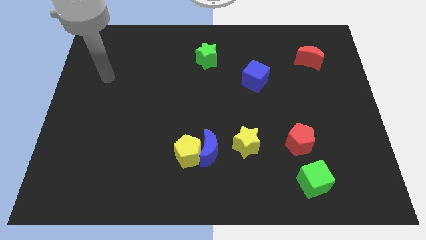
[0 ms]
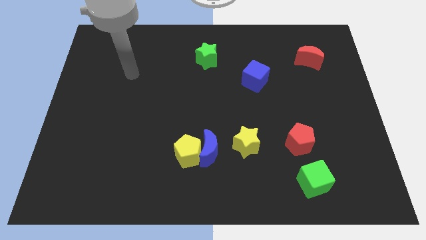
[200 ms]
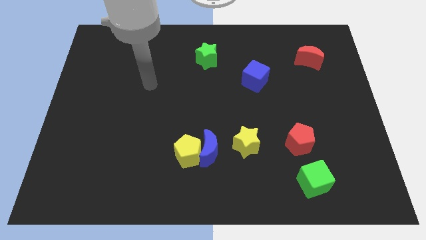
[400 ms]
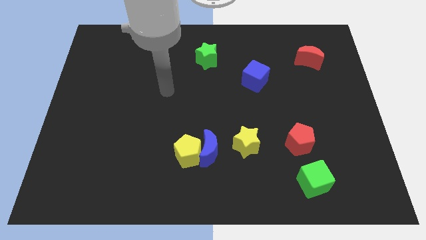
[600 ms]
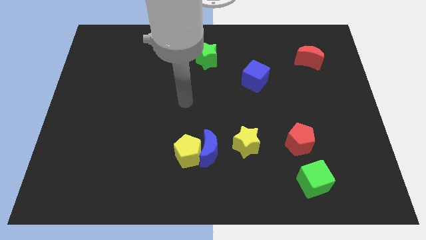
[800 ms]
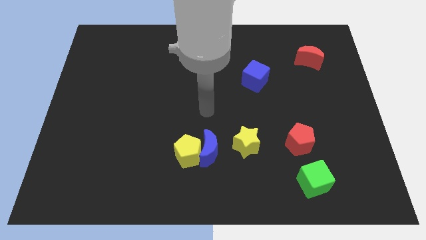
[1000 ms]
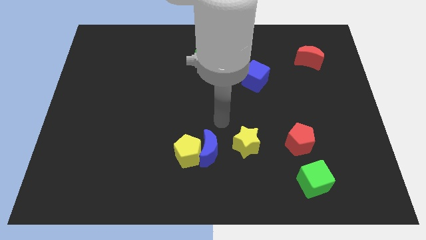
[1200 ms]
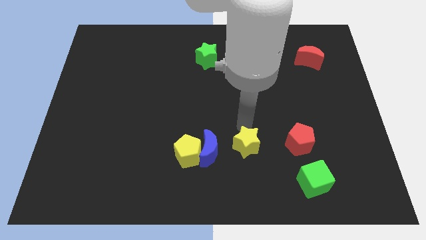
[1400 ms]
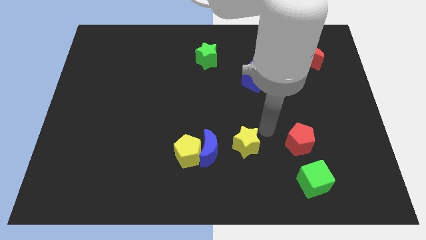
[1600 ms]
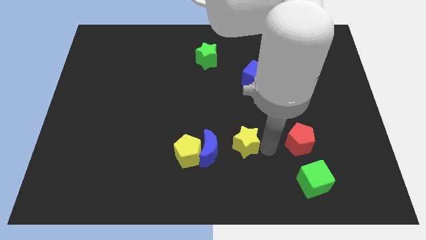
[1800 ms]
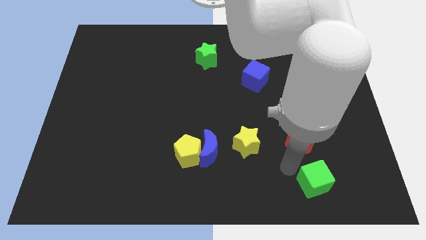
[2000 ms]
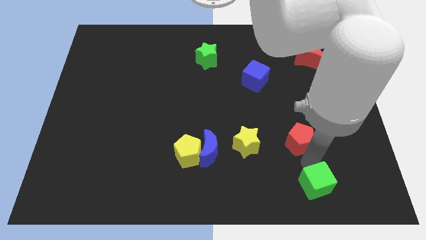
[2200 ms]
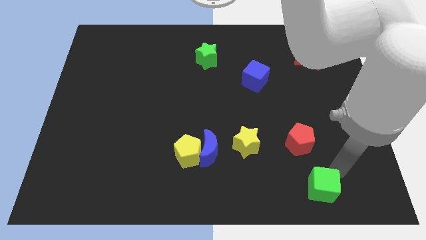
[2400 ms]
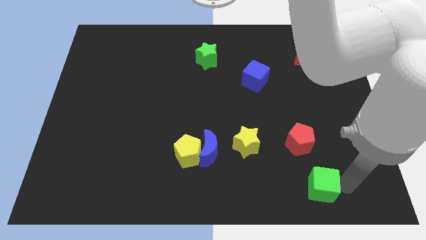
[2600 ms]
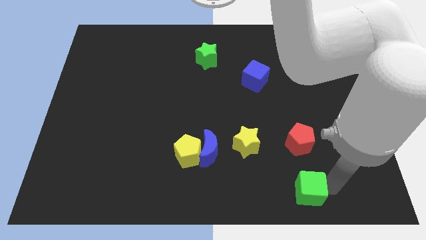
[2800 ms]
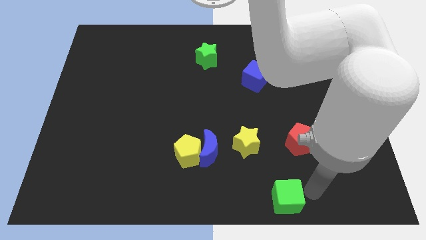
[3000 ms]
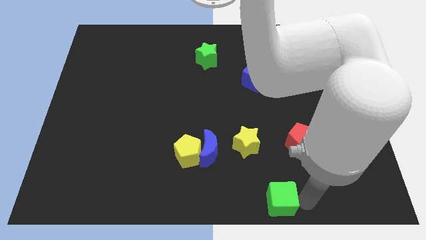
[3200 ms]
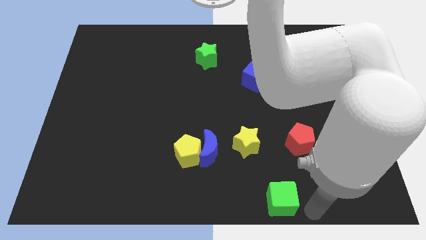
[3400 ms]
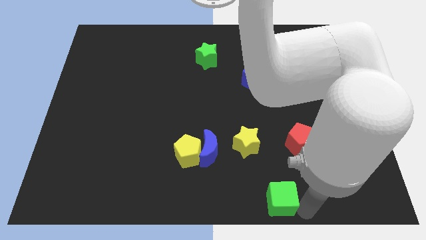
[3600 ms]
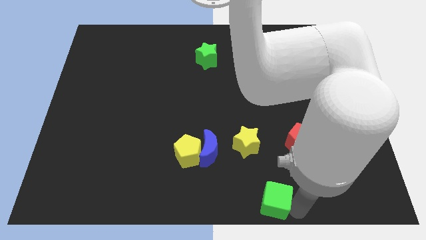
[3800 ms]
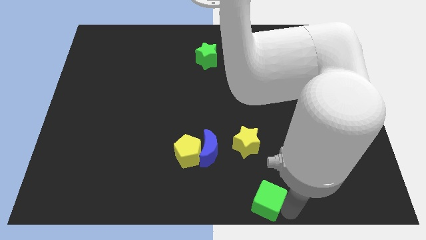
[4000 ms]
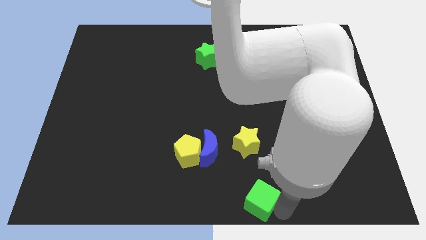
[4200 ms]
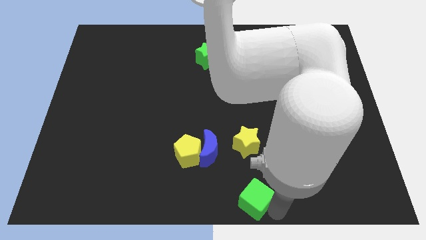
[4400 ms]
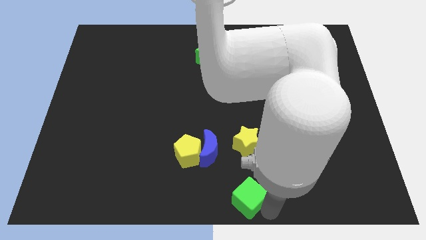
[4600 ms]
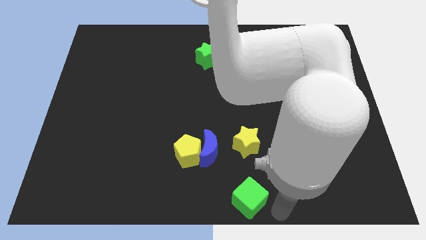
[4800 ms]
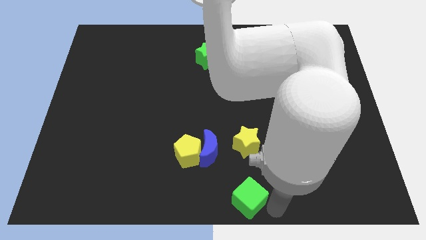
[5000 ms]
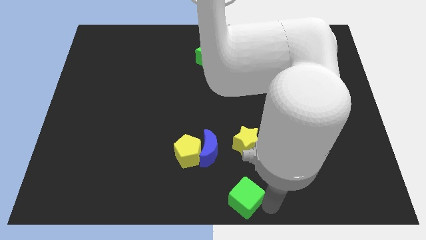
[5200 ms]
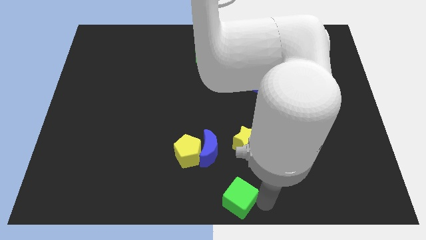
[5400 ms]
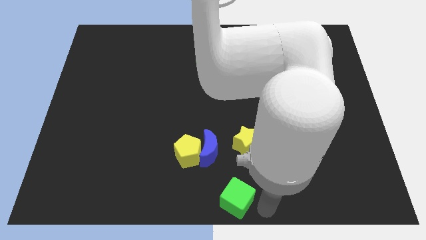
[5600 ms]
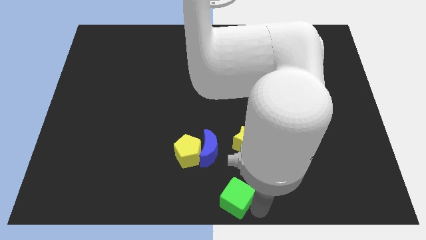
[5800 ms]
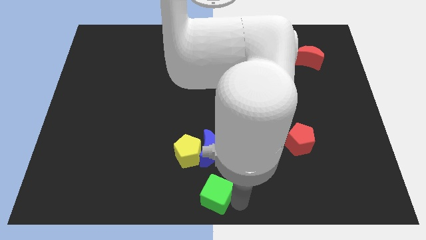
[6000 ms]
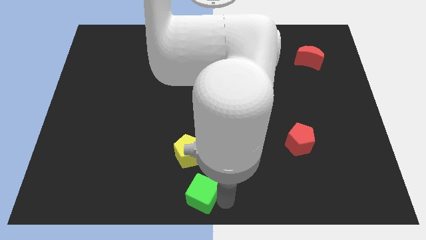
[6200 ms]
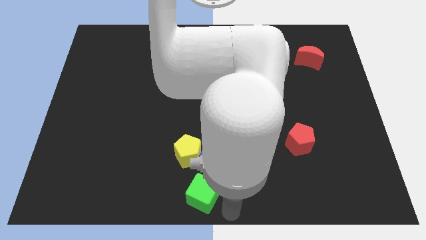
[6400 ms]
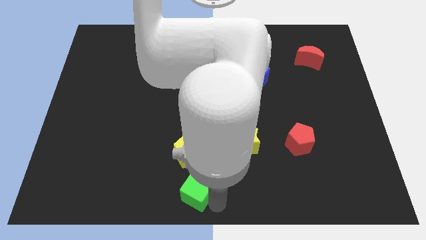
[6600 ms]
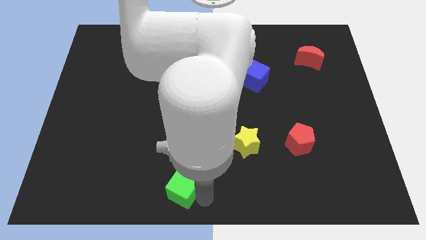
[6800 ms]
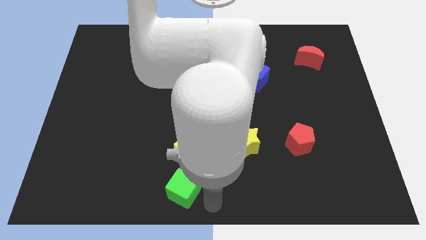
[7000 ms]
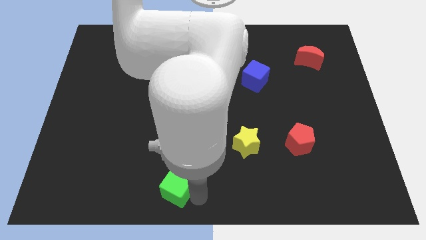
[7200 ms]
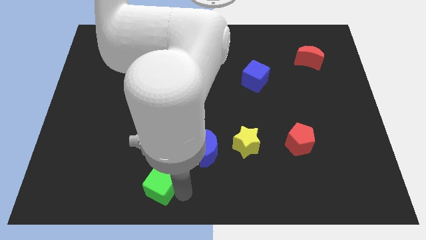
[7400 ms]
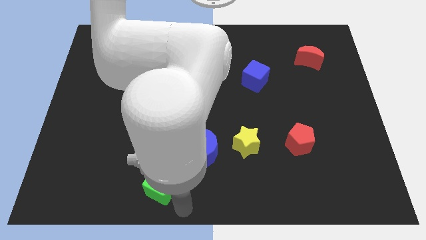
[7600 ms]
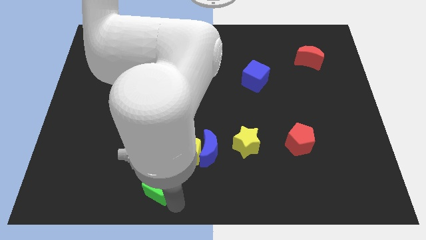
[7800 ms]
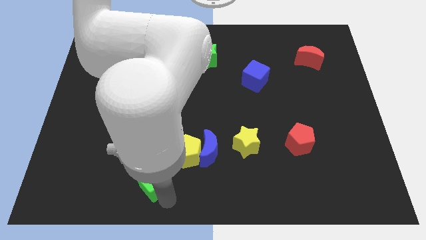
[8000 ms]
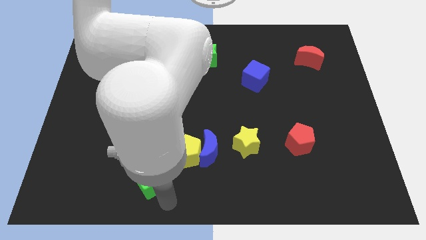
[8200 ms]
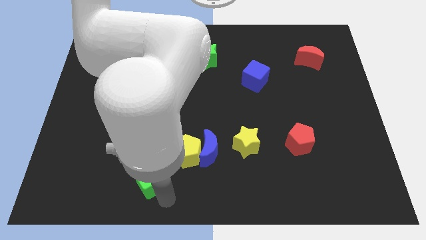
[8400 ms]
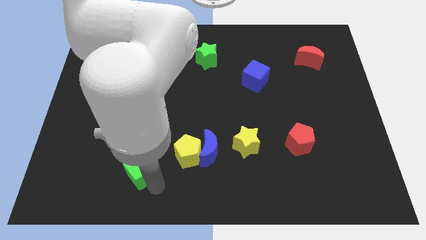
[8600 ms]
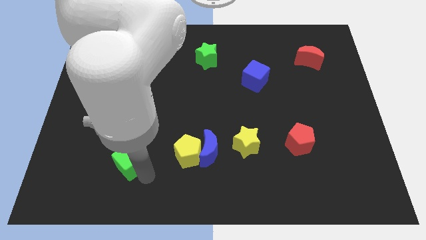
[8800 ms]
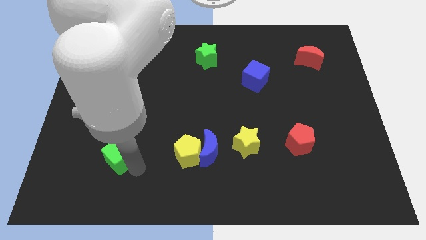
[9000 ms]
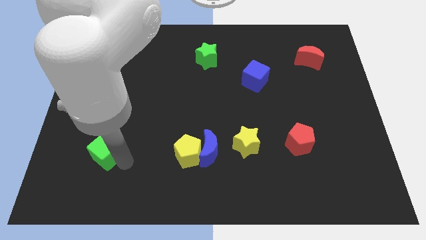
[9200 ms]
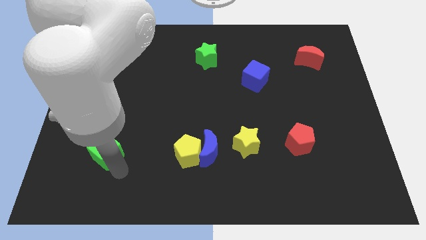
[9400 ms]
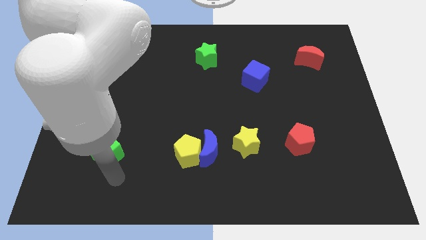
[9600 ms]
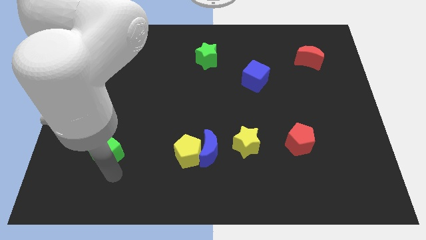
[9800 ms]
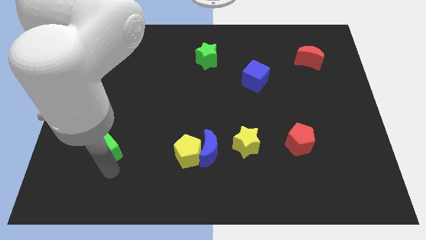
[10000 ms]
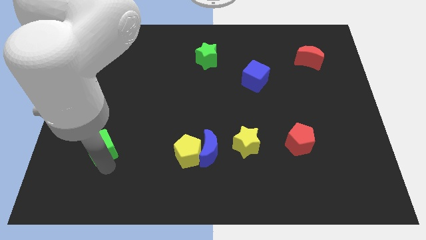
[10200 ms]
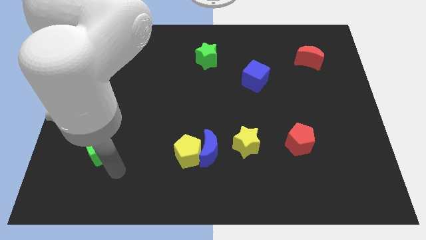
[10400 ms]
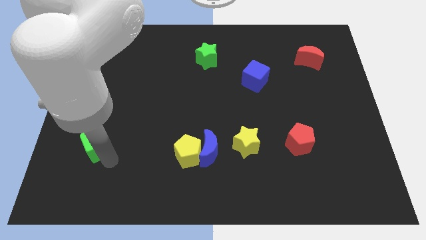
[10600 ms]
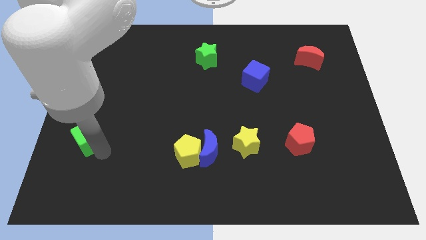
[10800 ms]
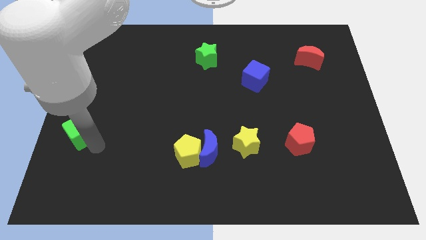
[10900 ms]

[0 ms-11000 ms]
move the green cube to the left side of the board
